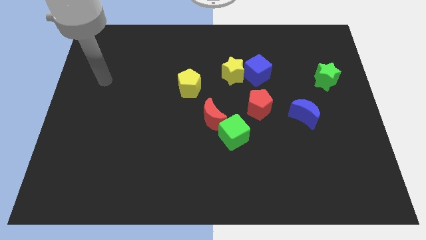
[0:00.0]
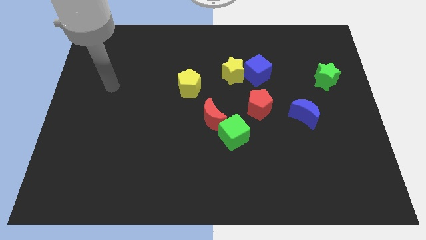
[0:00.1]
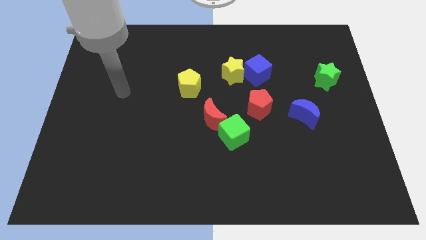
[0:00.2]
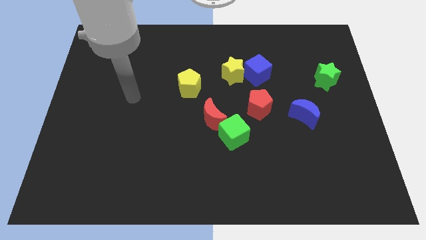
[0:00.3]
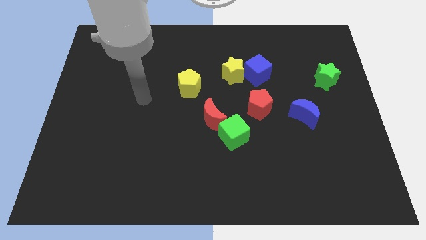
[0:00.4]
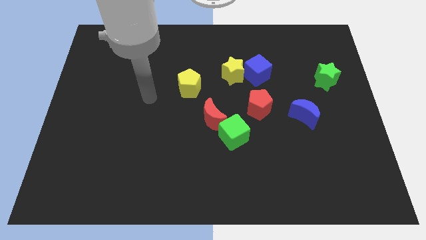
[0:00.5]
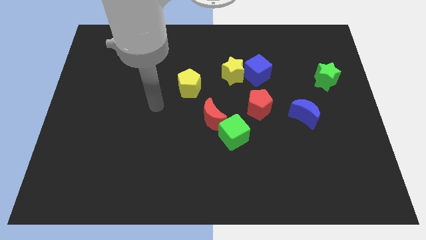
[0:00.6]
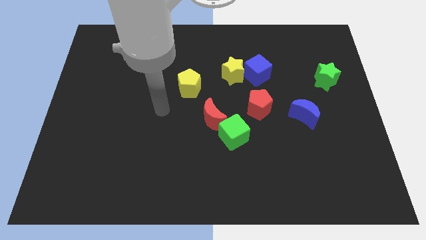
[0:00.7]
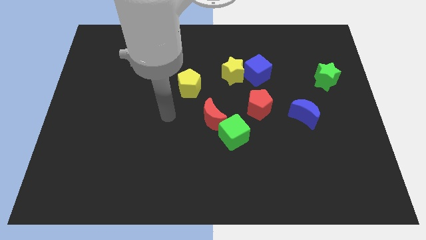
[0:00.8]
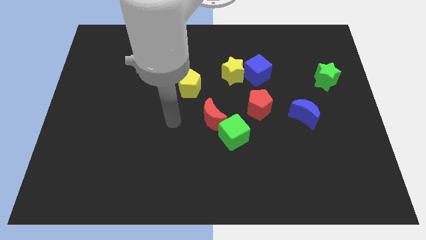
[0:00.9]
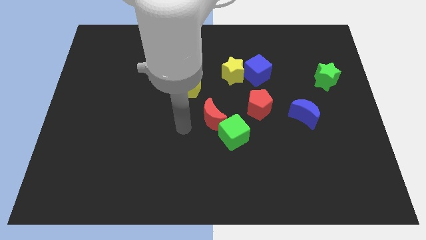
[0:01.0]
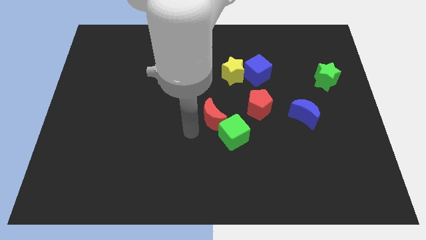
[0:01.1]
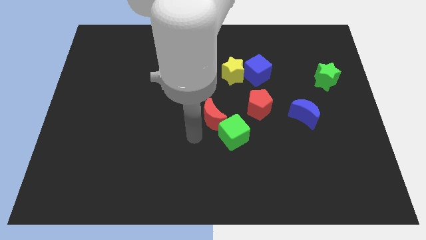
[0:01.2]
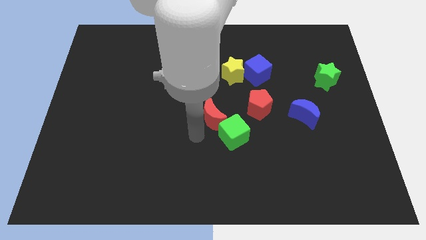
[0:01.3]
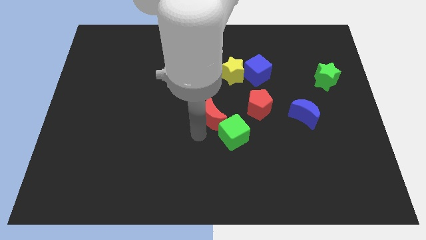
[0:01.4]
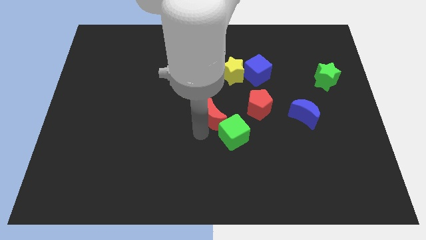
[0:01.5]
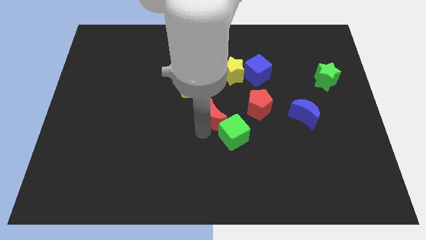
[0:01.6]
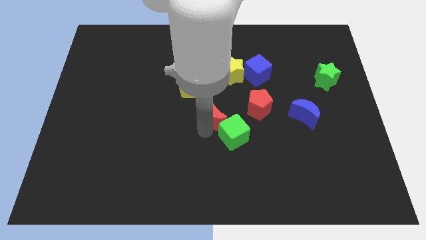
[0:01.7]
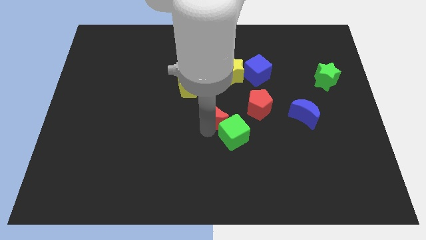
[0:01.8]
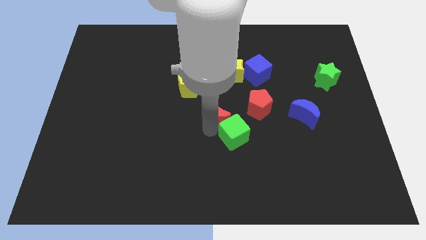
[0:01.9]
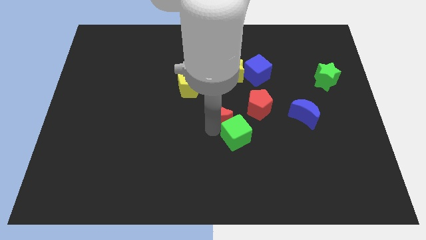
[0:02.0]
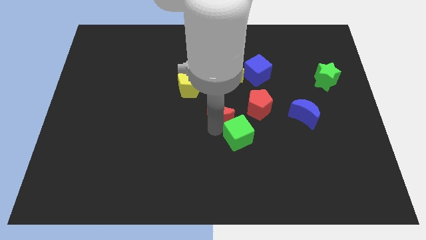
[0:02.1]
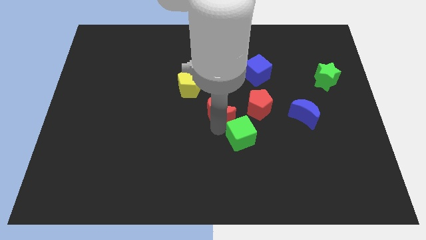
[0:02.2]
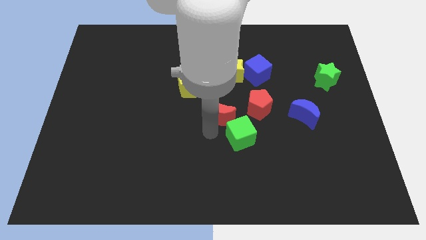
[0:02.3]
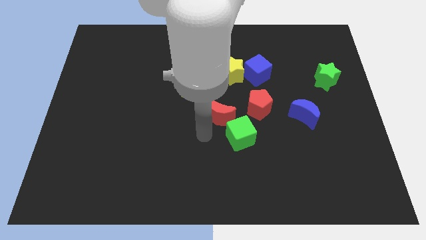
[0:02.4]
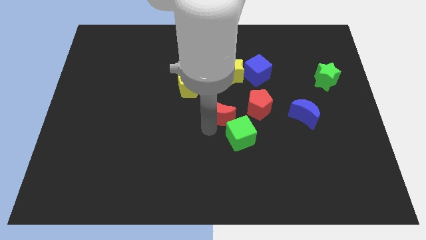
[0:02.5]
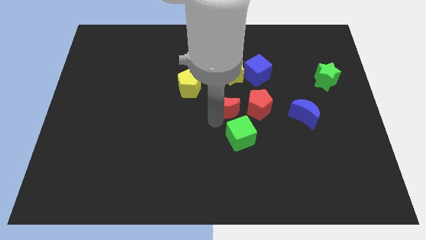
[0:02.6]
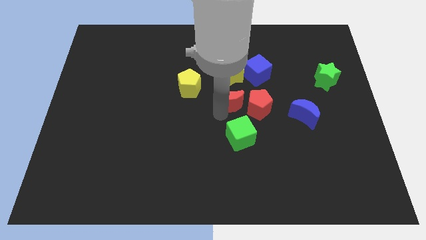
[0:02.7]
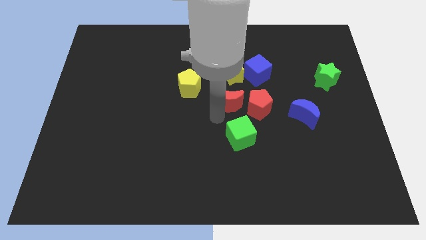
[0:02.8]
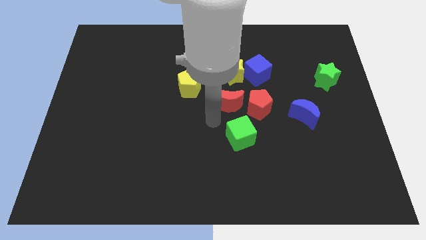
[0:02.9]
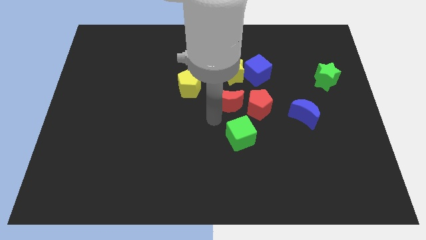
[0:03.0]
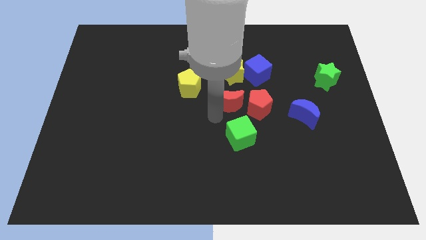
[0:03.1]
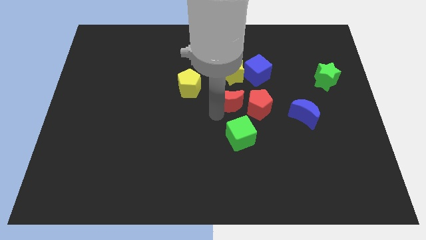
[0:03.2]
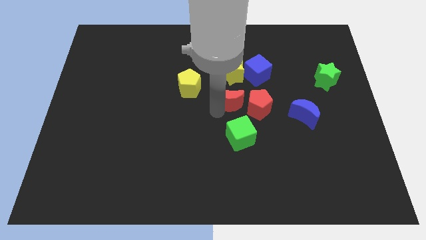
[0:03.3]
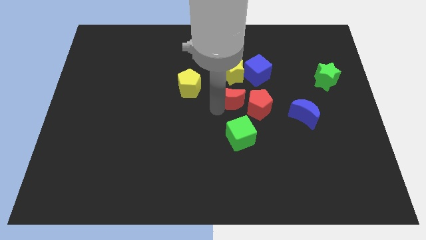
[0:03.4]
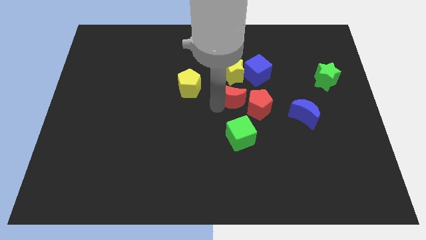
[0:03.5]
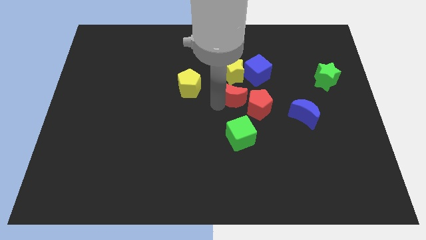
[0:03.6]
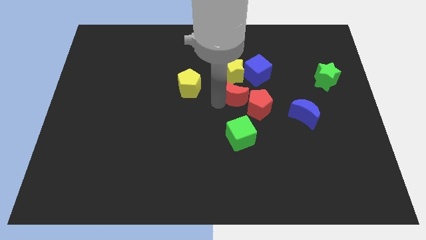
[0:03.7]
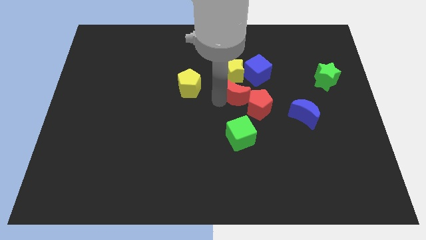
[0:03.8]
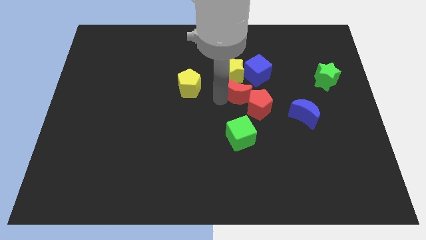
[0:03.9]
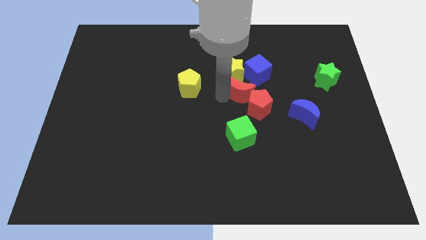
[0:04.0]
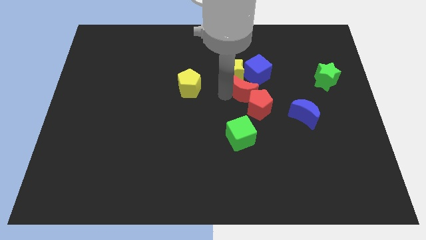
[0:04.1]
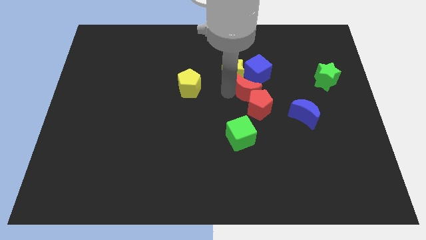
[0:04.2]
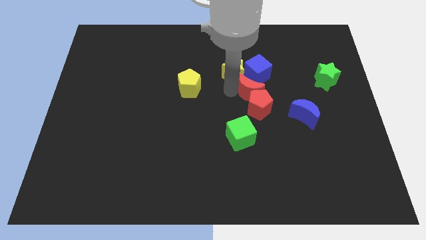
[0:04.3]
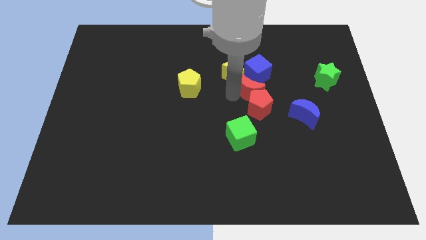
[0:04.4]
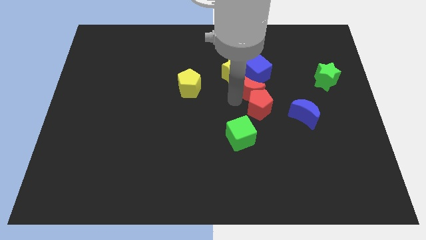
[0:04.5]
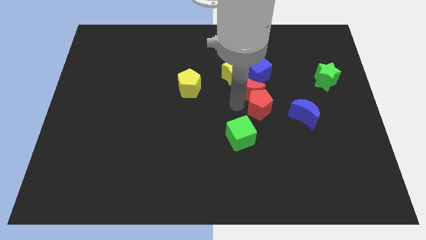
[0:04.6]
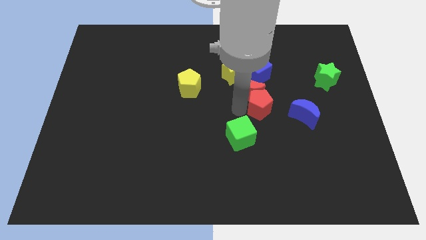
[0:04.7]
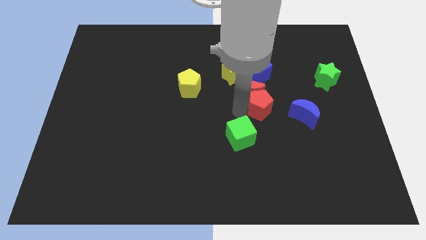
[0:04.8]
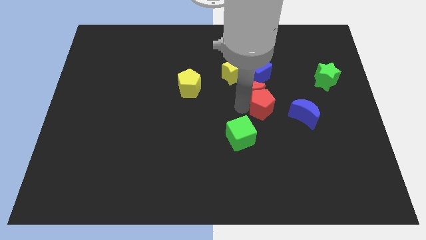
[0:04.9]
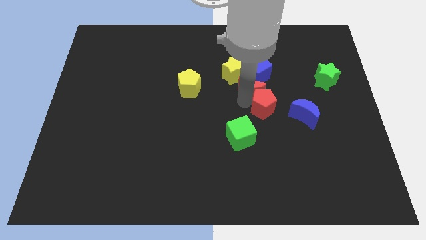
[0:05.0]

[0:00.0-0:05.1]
slide the red moon next to the blue cube

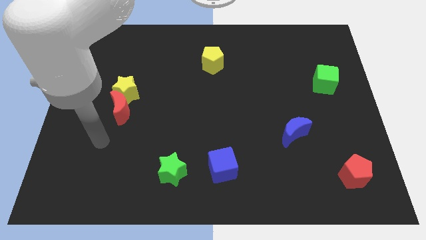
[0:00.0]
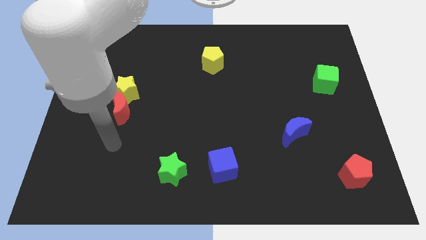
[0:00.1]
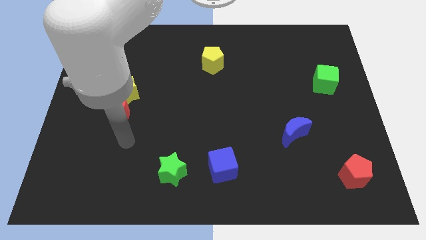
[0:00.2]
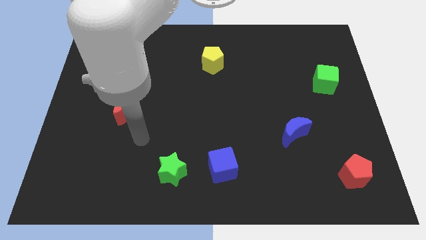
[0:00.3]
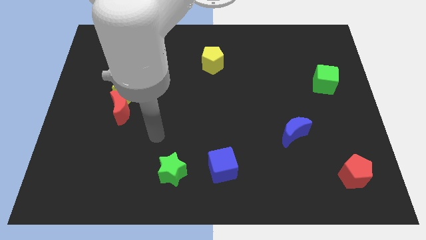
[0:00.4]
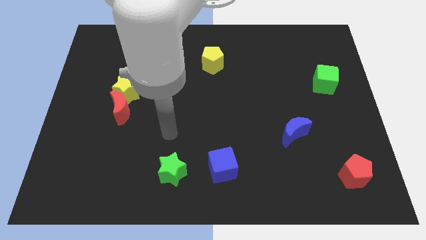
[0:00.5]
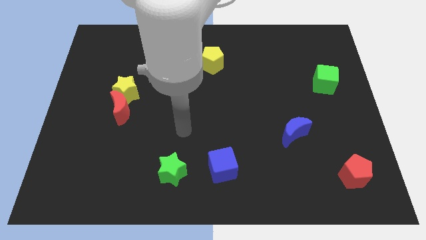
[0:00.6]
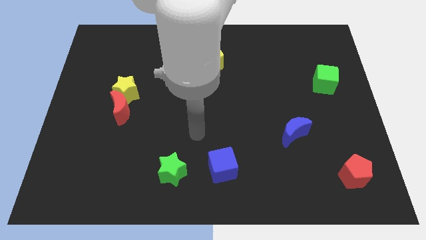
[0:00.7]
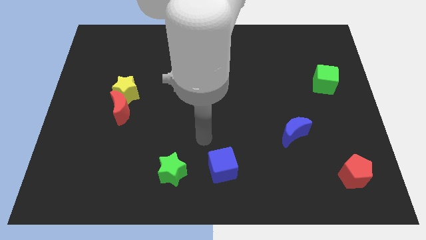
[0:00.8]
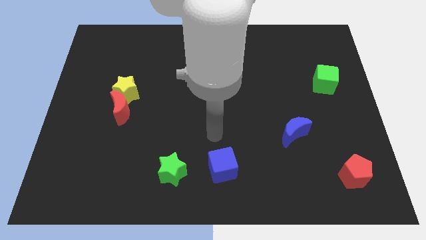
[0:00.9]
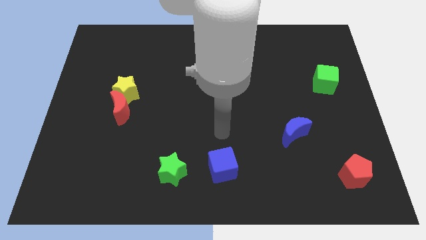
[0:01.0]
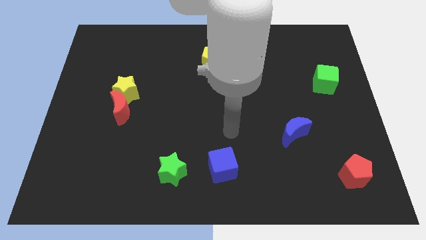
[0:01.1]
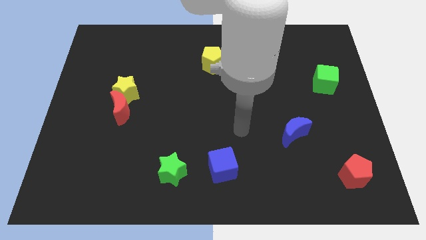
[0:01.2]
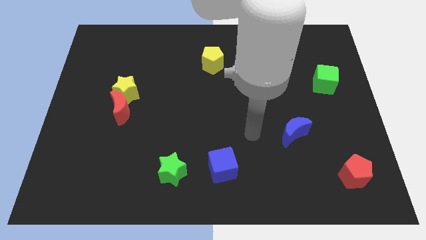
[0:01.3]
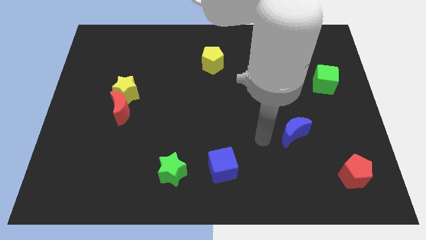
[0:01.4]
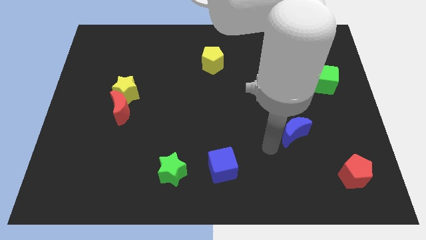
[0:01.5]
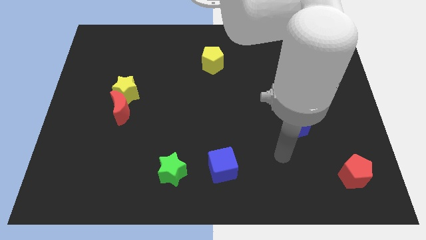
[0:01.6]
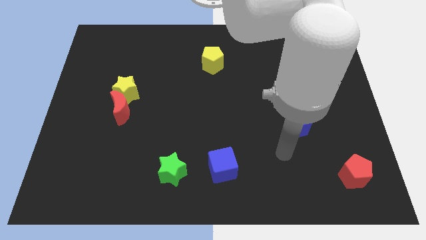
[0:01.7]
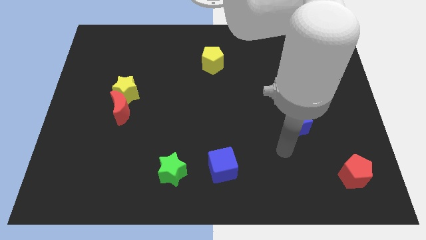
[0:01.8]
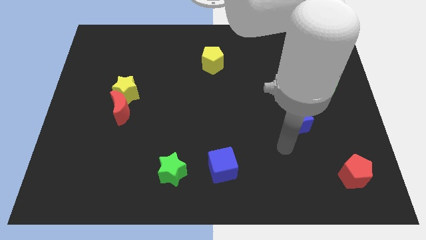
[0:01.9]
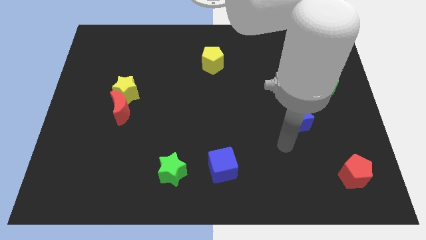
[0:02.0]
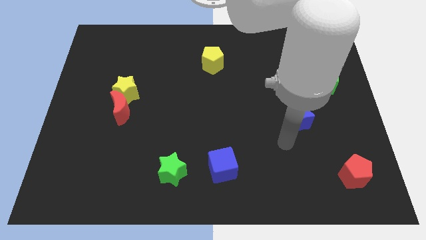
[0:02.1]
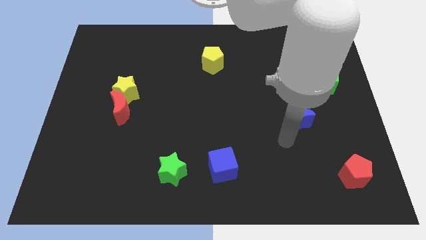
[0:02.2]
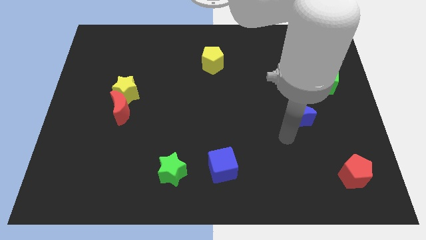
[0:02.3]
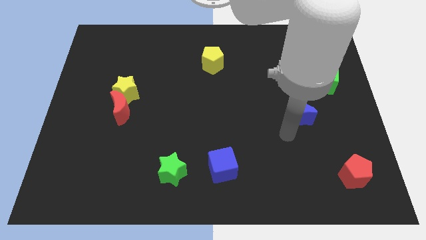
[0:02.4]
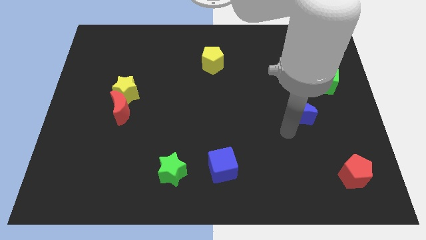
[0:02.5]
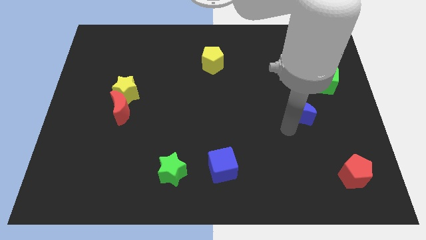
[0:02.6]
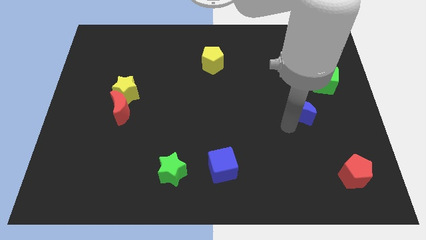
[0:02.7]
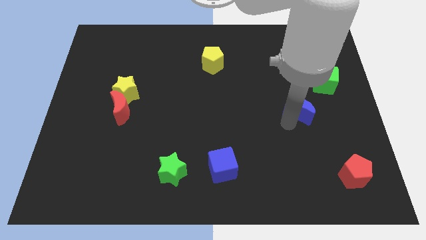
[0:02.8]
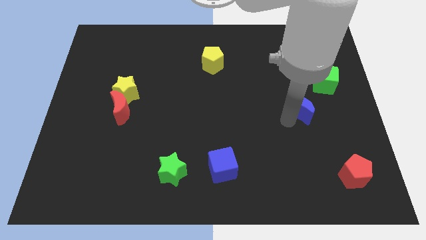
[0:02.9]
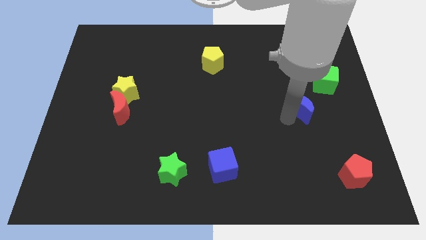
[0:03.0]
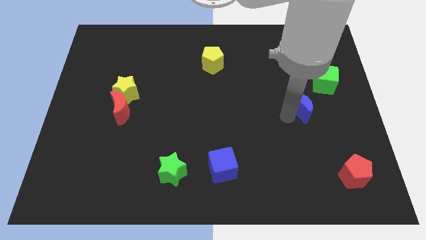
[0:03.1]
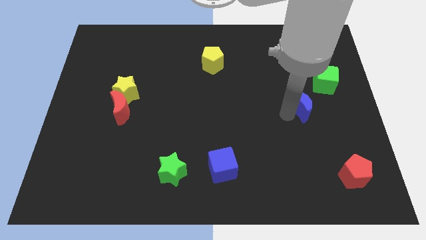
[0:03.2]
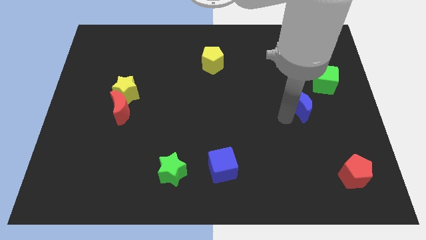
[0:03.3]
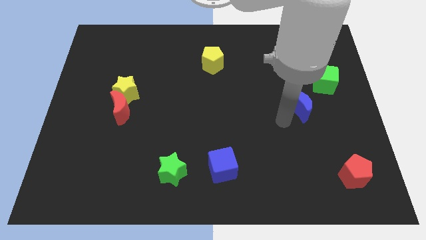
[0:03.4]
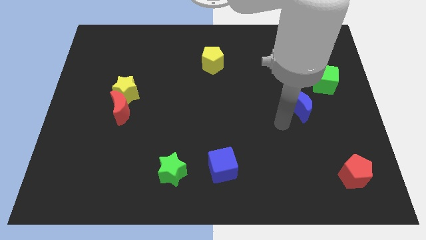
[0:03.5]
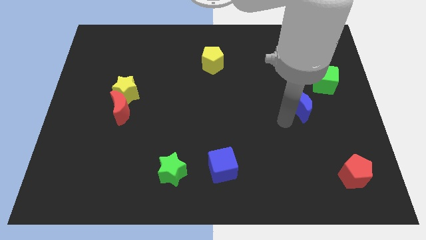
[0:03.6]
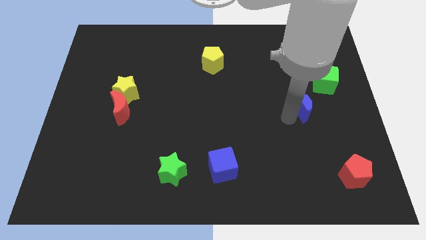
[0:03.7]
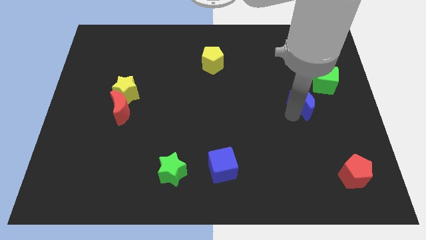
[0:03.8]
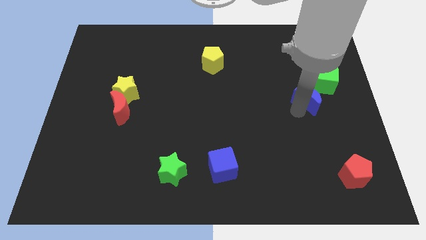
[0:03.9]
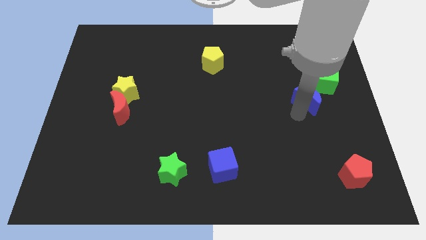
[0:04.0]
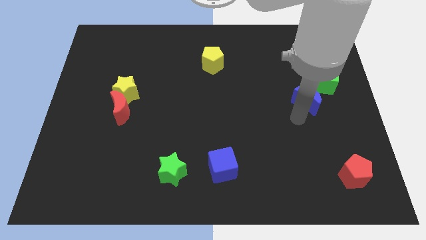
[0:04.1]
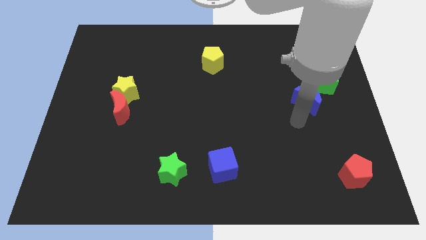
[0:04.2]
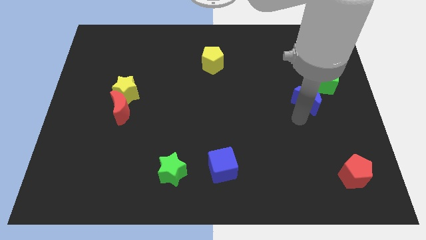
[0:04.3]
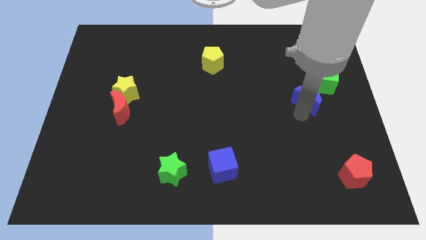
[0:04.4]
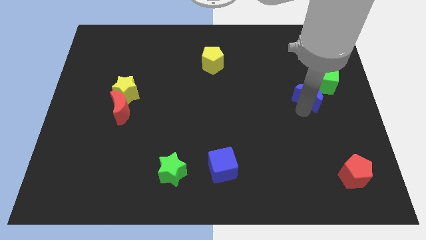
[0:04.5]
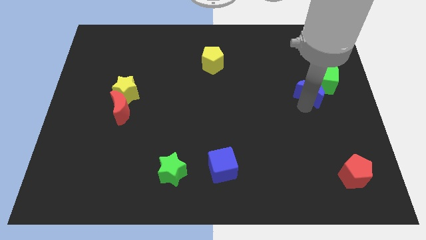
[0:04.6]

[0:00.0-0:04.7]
push the blue moon to the green cube
